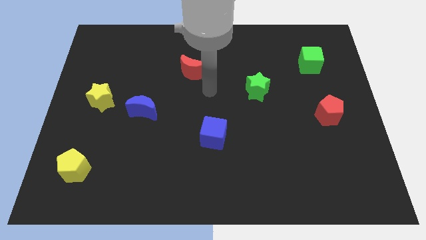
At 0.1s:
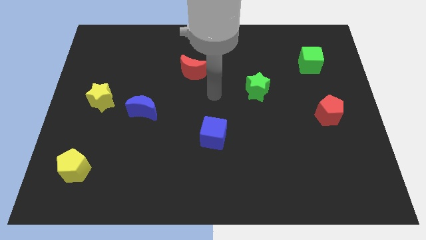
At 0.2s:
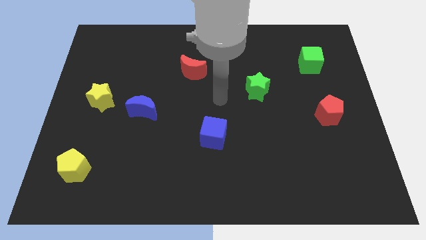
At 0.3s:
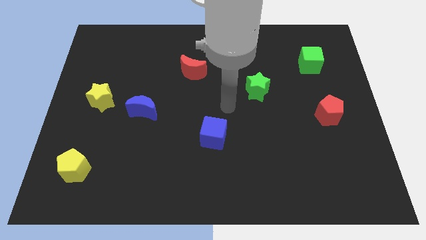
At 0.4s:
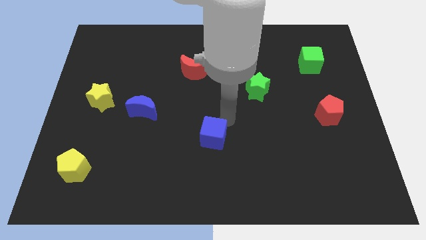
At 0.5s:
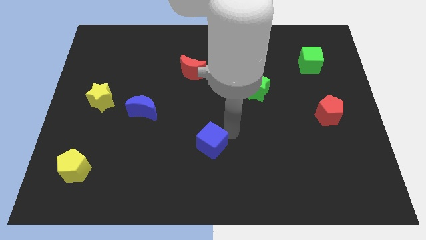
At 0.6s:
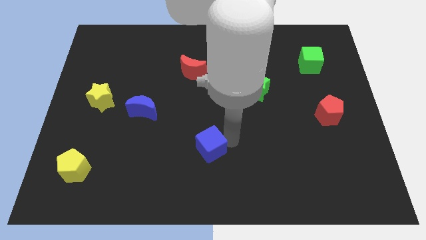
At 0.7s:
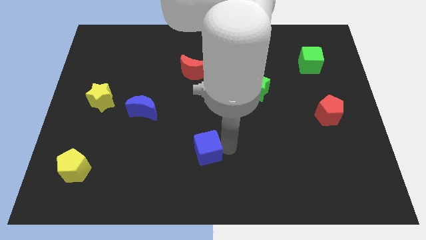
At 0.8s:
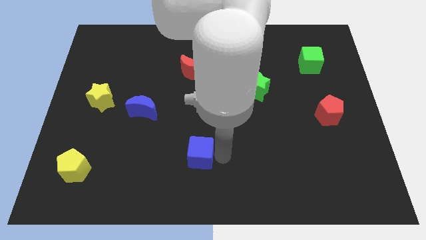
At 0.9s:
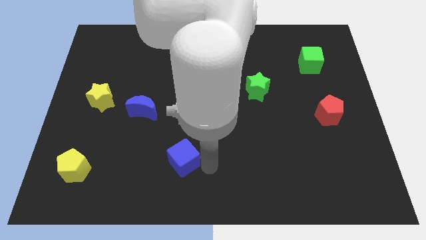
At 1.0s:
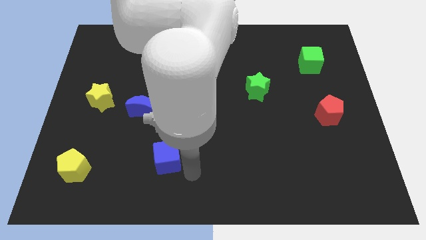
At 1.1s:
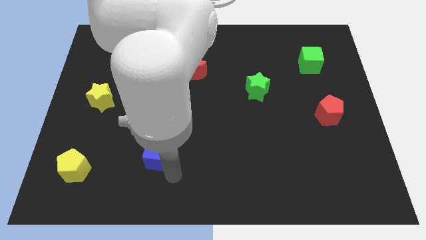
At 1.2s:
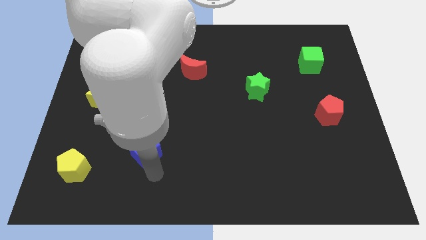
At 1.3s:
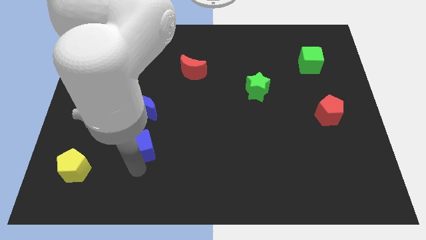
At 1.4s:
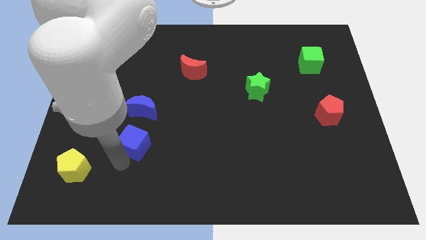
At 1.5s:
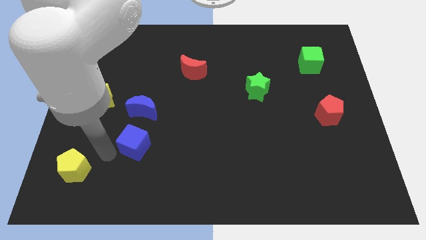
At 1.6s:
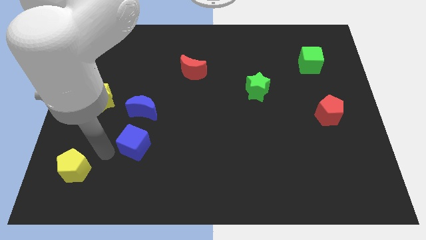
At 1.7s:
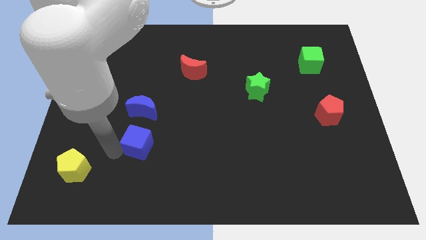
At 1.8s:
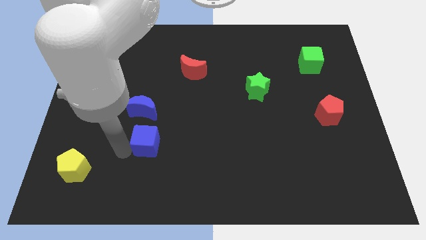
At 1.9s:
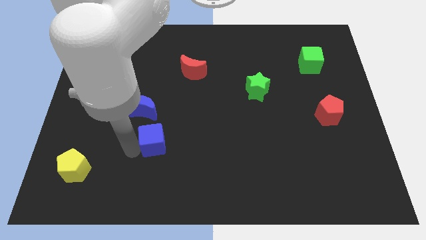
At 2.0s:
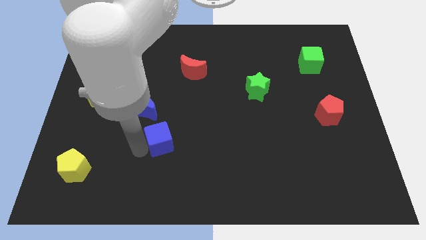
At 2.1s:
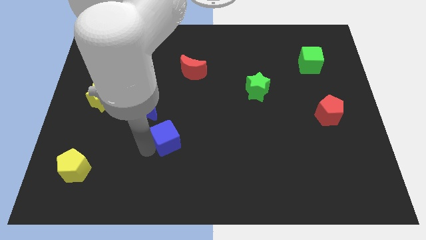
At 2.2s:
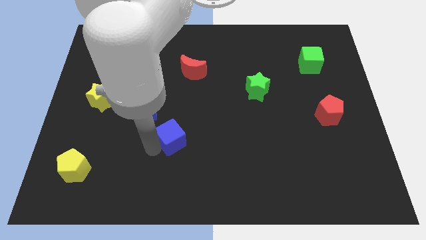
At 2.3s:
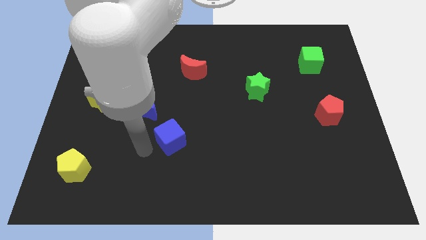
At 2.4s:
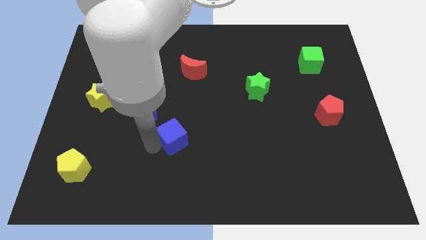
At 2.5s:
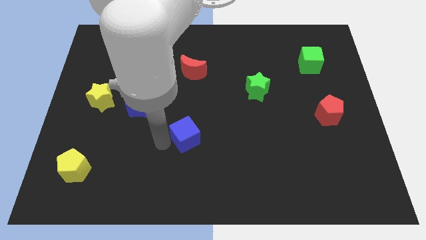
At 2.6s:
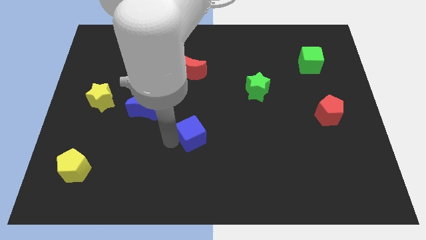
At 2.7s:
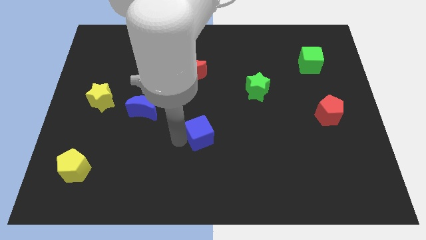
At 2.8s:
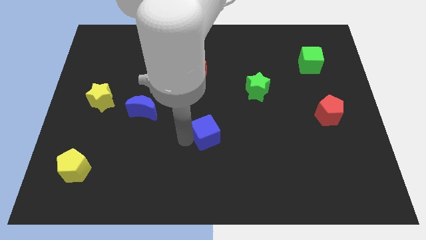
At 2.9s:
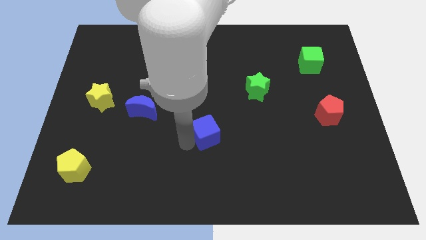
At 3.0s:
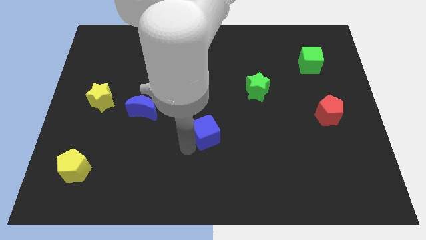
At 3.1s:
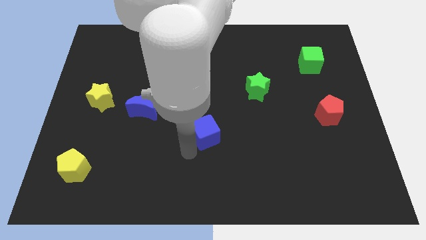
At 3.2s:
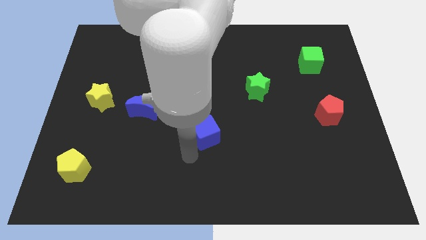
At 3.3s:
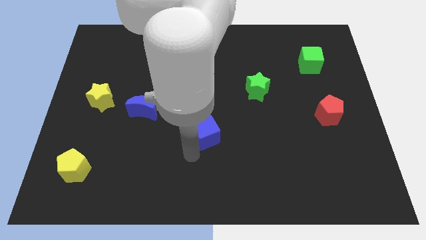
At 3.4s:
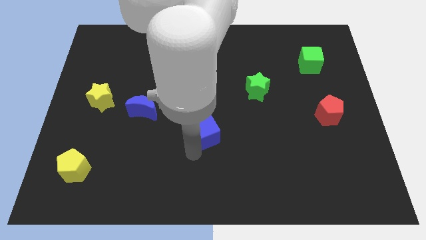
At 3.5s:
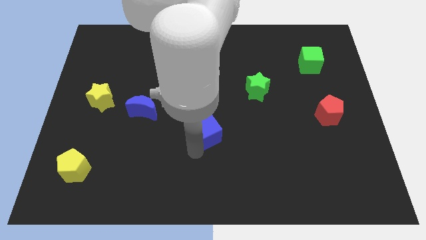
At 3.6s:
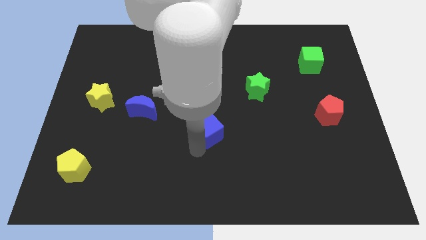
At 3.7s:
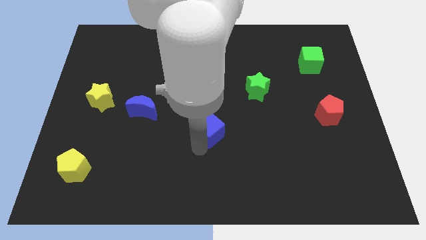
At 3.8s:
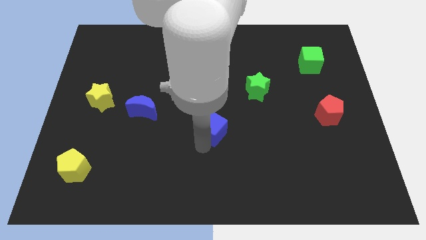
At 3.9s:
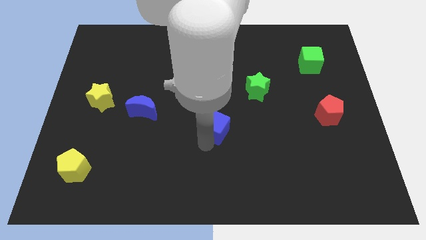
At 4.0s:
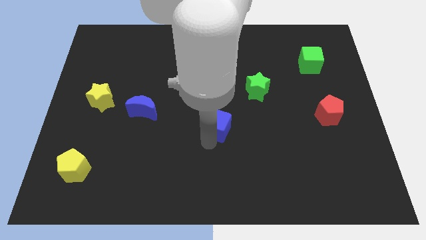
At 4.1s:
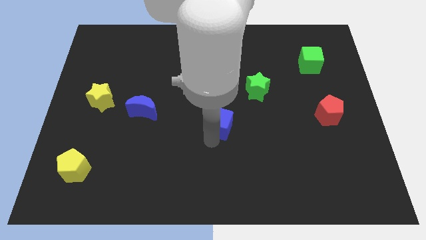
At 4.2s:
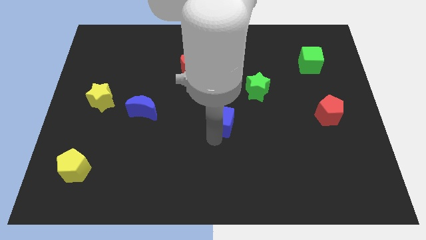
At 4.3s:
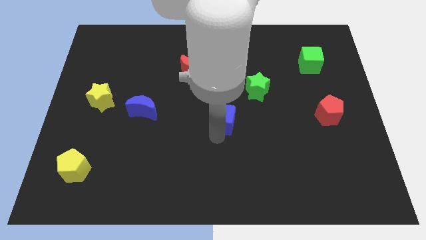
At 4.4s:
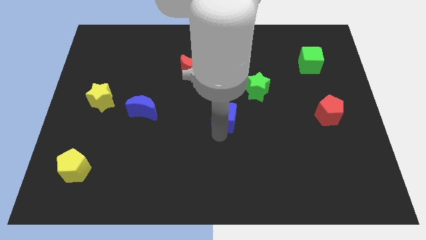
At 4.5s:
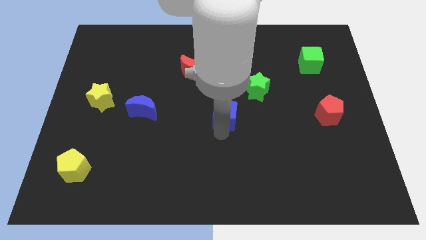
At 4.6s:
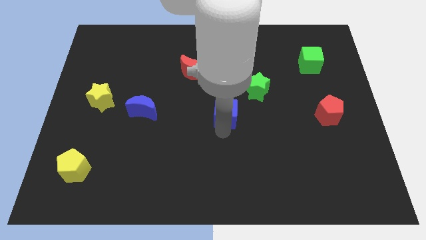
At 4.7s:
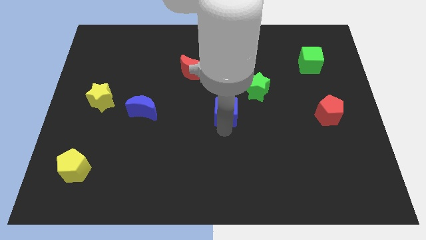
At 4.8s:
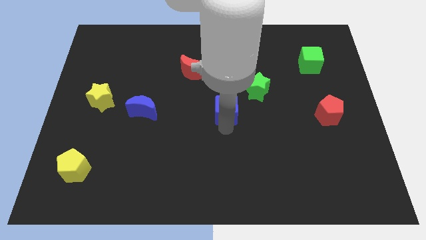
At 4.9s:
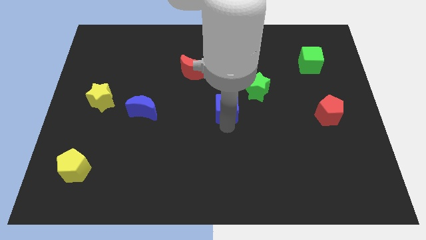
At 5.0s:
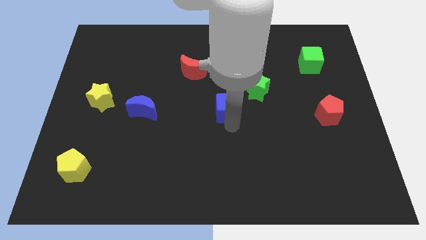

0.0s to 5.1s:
push the blue cube upwards a little

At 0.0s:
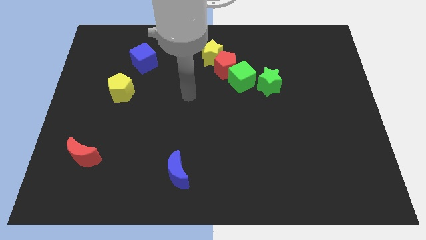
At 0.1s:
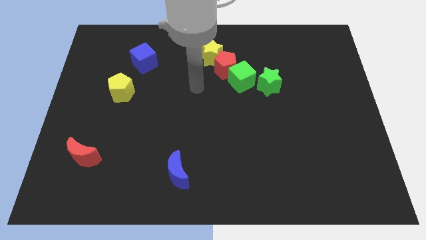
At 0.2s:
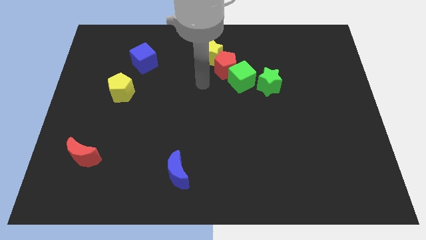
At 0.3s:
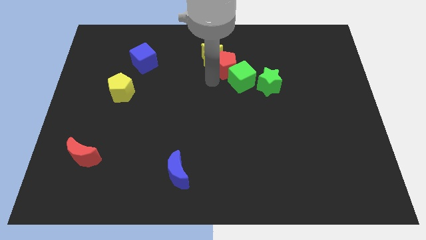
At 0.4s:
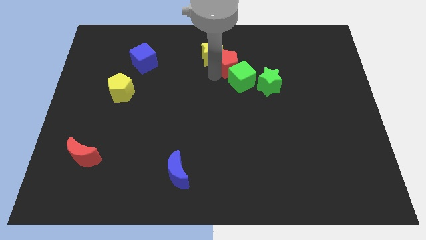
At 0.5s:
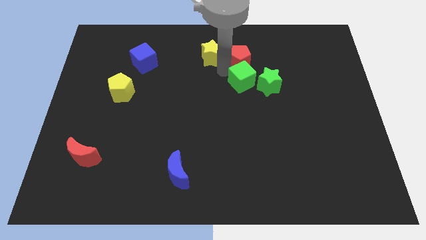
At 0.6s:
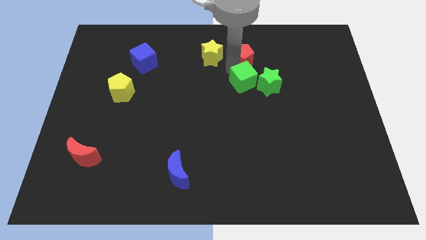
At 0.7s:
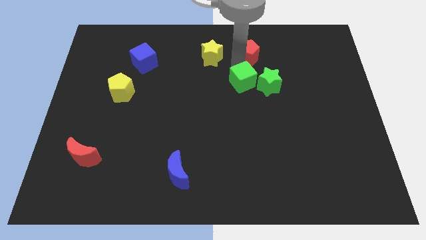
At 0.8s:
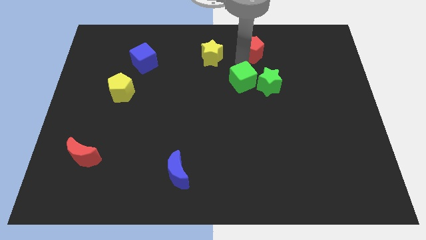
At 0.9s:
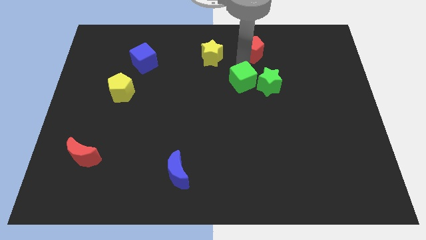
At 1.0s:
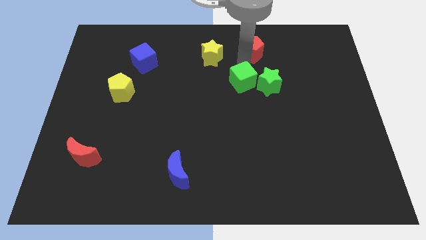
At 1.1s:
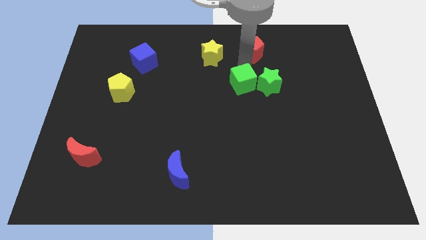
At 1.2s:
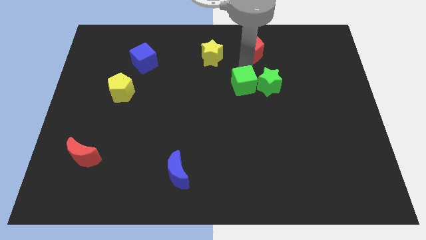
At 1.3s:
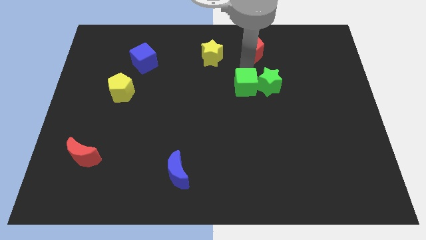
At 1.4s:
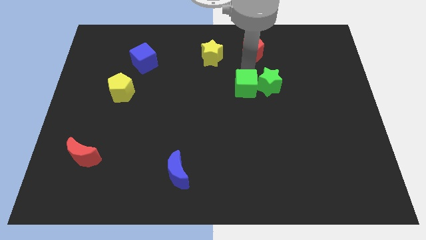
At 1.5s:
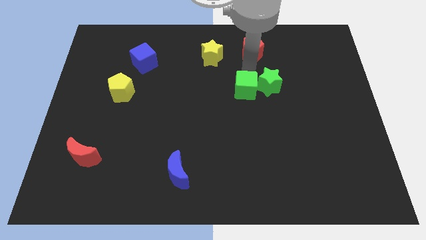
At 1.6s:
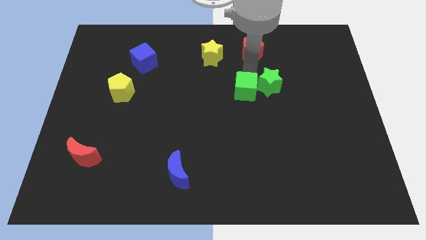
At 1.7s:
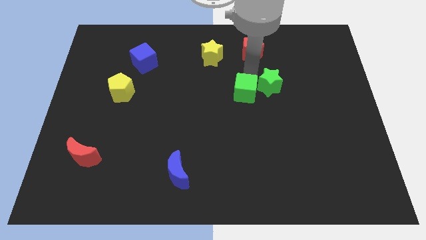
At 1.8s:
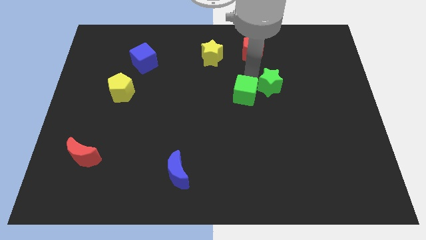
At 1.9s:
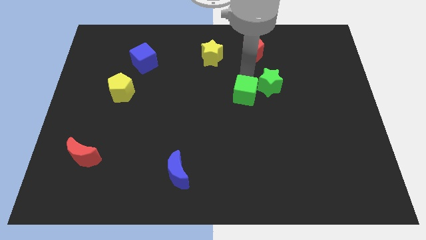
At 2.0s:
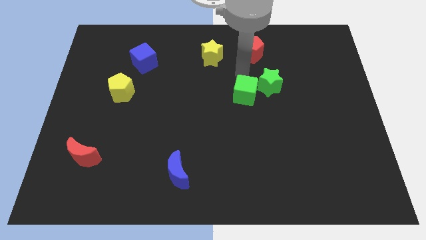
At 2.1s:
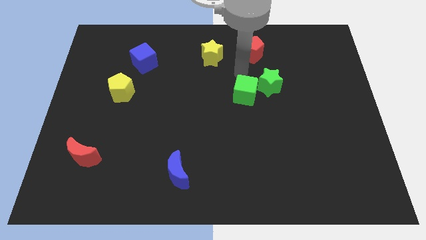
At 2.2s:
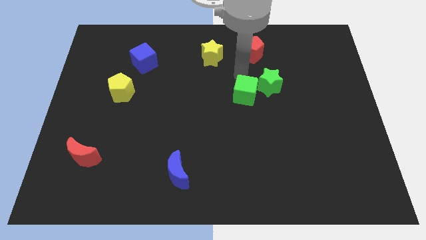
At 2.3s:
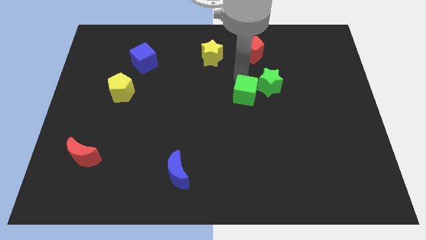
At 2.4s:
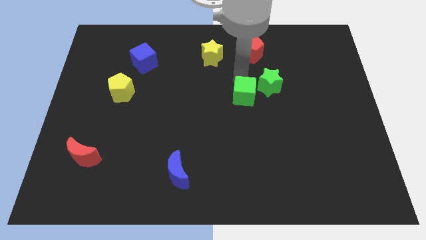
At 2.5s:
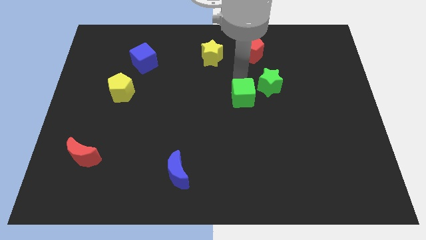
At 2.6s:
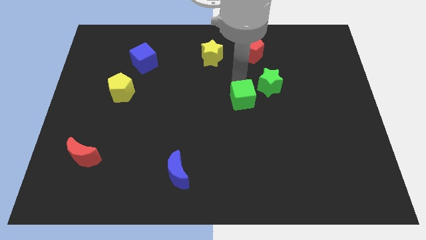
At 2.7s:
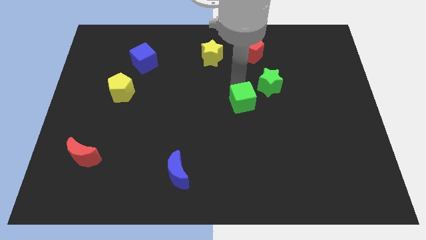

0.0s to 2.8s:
slightly slide the green cube down
